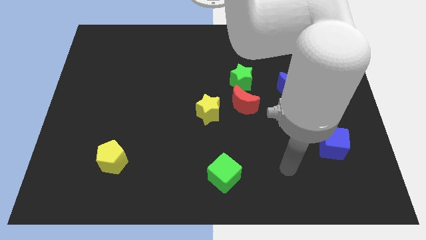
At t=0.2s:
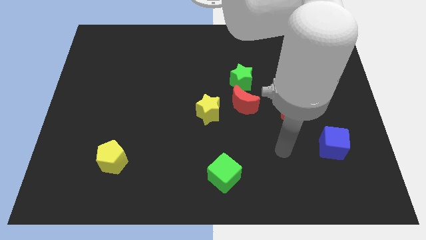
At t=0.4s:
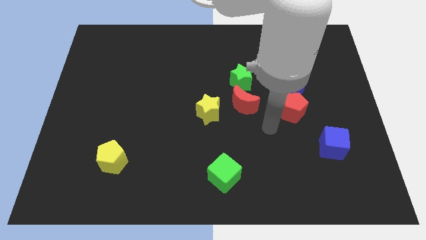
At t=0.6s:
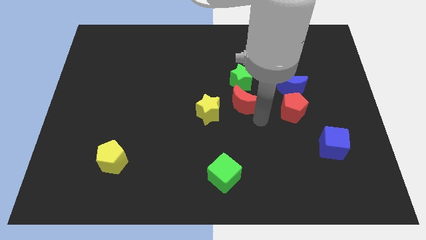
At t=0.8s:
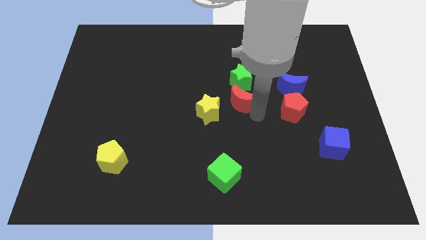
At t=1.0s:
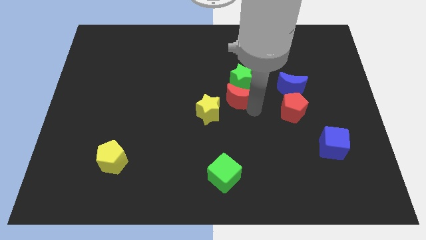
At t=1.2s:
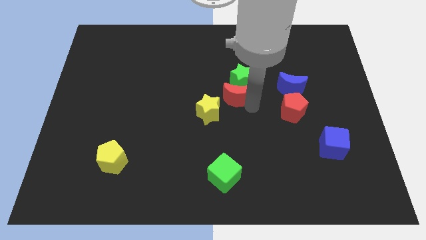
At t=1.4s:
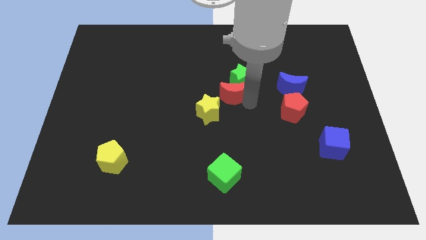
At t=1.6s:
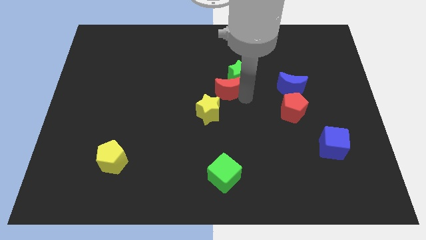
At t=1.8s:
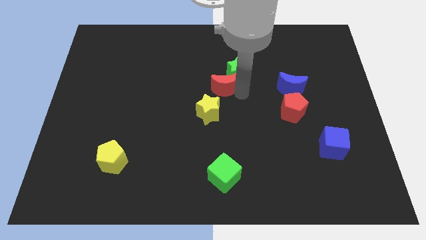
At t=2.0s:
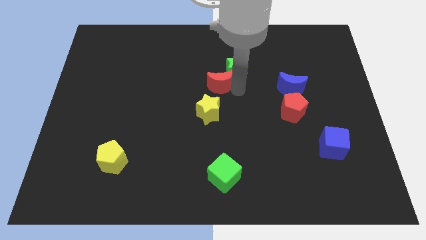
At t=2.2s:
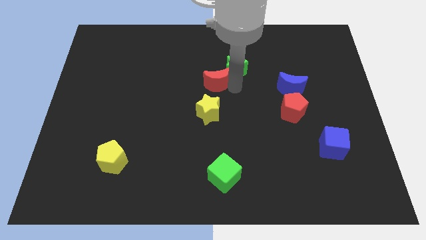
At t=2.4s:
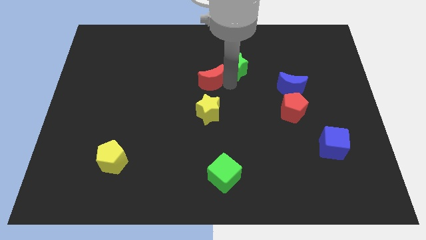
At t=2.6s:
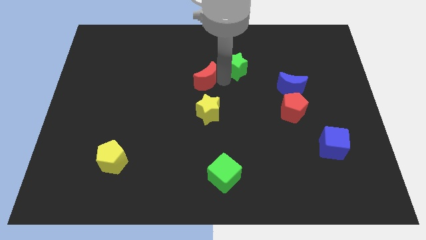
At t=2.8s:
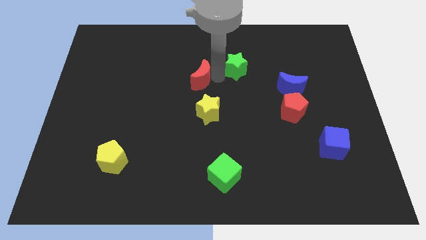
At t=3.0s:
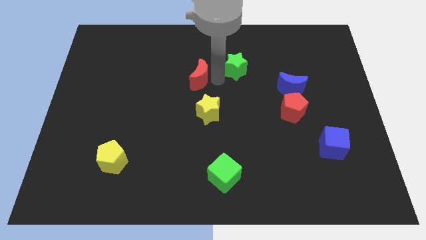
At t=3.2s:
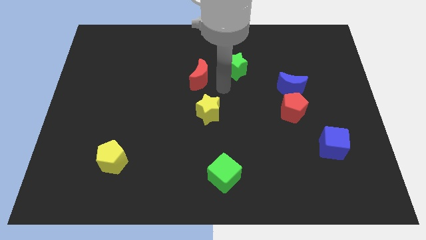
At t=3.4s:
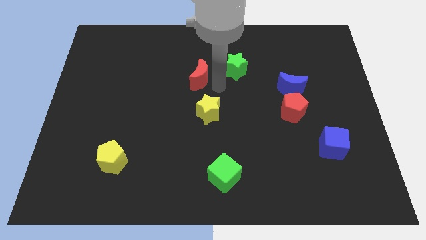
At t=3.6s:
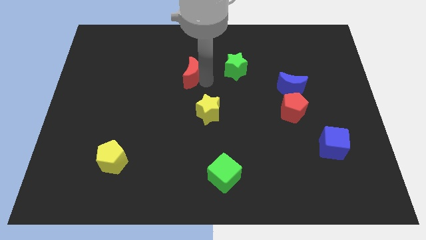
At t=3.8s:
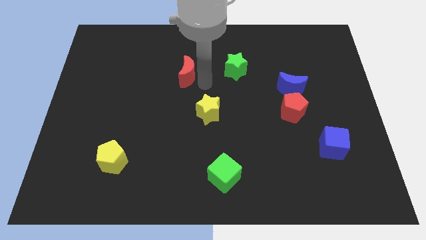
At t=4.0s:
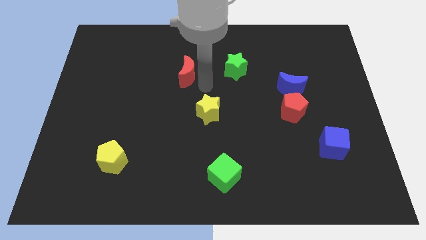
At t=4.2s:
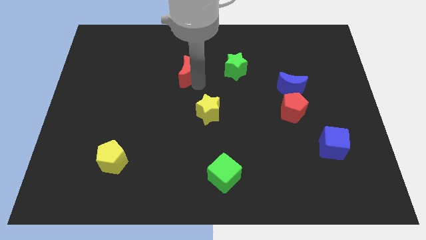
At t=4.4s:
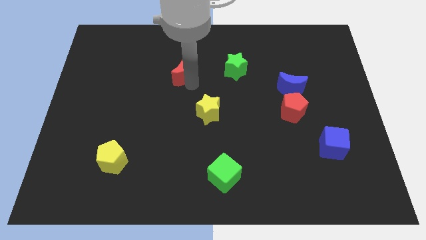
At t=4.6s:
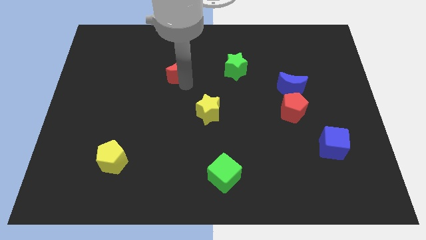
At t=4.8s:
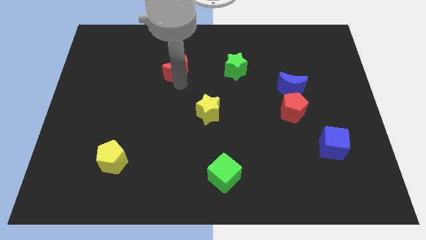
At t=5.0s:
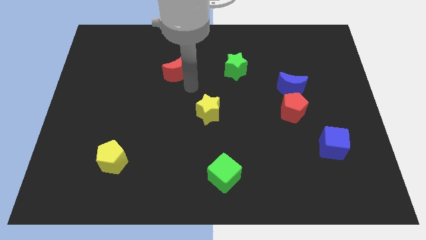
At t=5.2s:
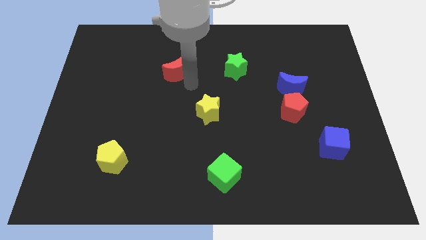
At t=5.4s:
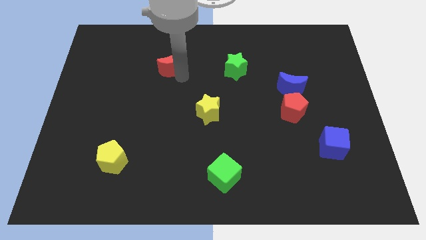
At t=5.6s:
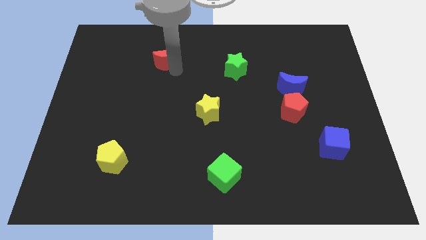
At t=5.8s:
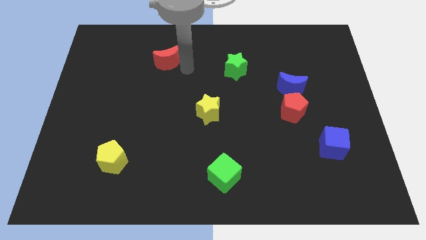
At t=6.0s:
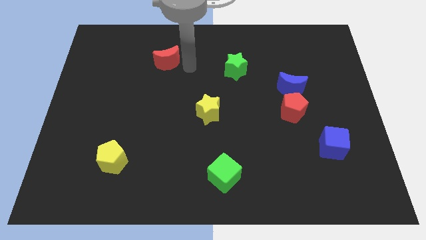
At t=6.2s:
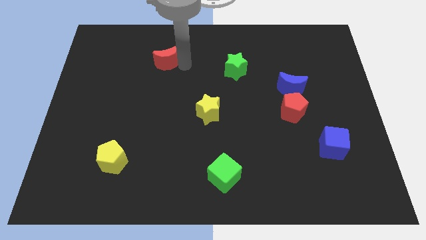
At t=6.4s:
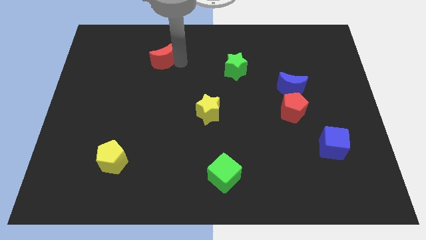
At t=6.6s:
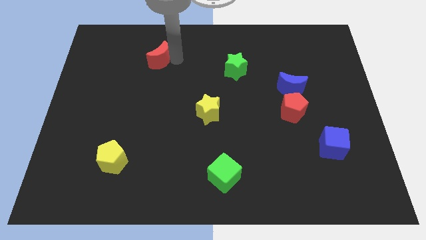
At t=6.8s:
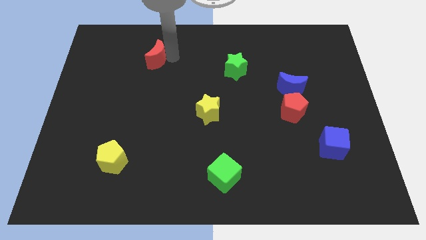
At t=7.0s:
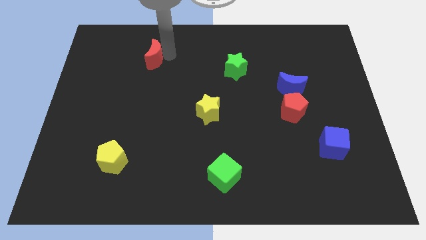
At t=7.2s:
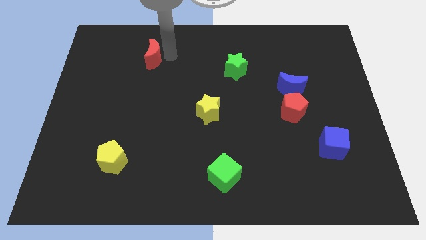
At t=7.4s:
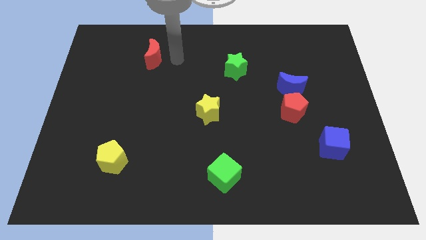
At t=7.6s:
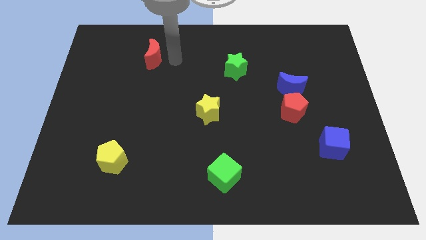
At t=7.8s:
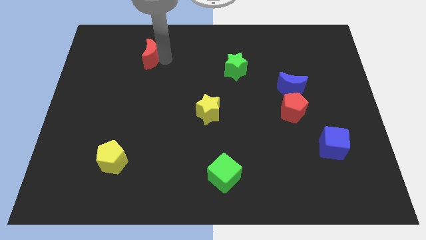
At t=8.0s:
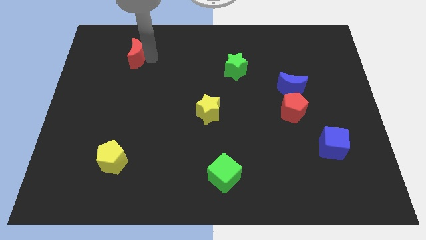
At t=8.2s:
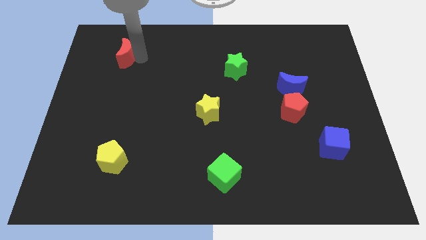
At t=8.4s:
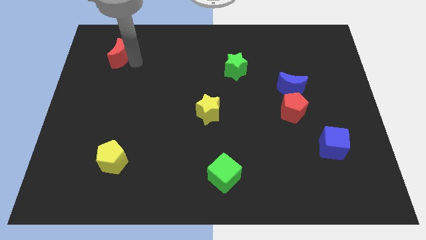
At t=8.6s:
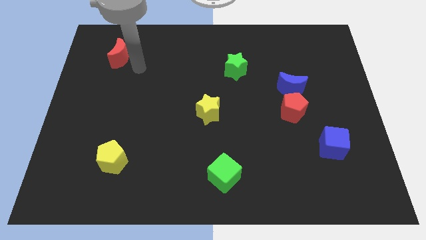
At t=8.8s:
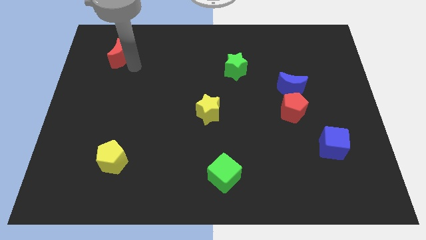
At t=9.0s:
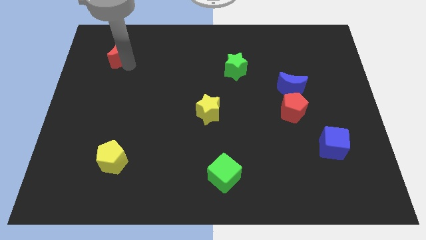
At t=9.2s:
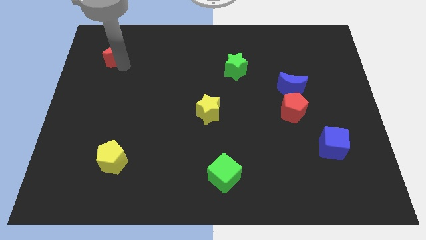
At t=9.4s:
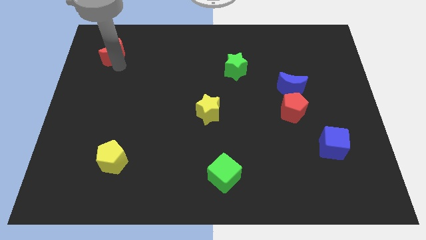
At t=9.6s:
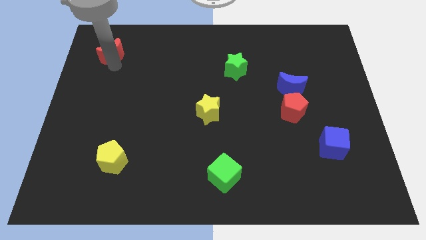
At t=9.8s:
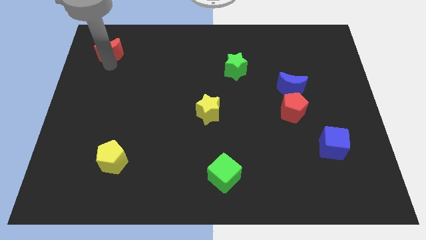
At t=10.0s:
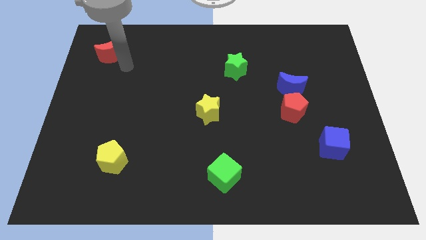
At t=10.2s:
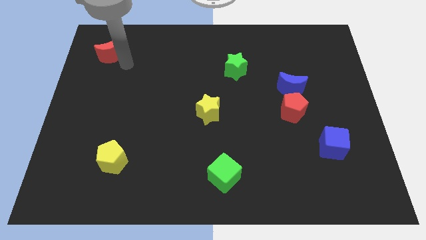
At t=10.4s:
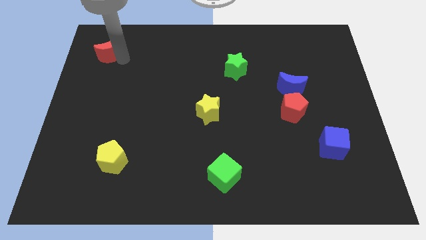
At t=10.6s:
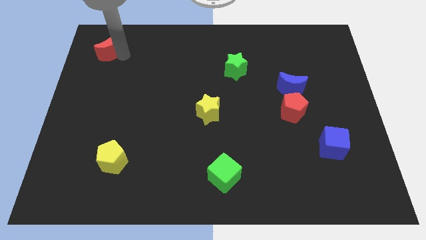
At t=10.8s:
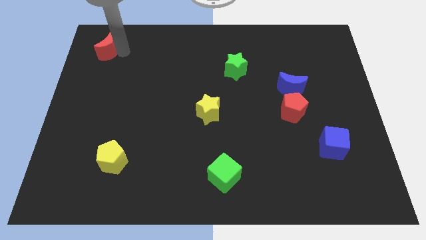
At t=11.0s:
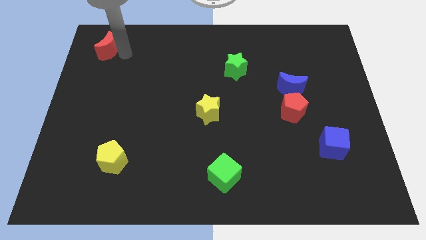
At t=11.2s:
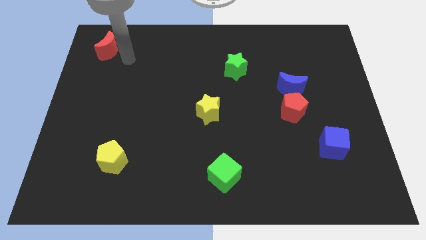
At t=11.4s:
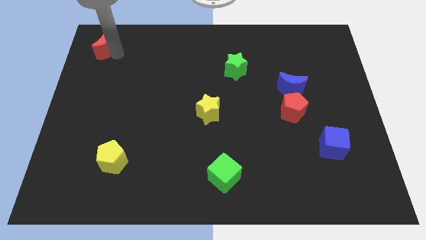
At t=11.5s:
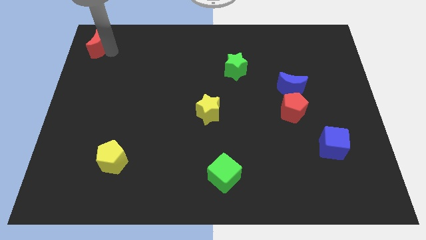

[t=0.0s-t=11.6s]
put the red moon to the upper left corner

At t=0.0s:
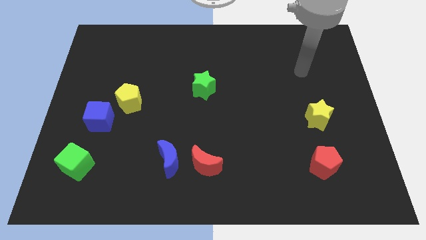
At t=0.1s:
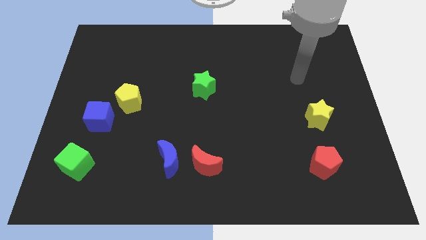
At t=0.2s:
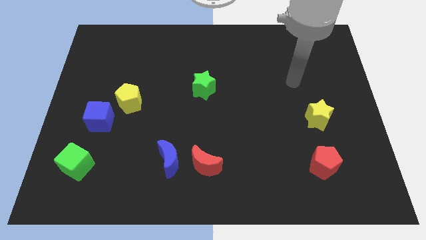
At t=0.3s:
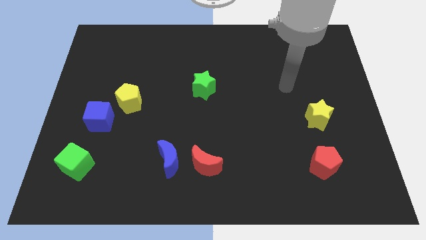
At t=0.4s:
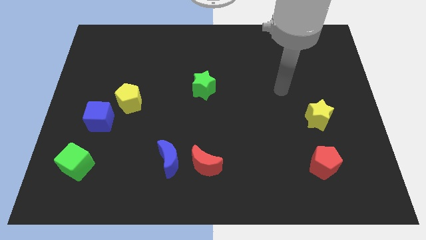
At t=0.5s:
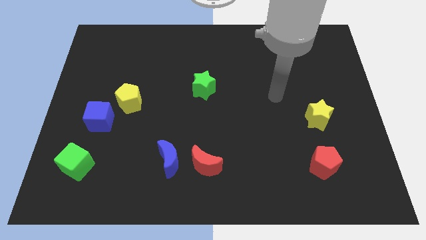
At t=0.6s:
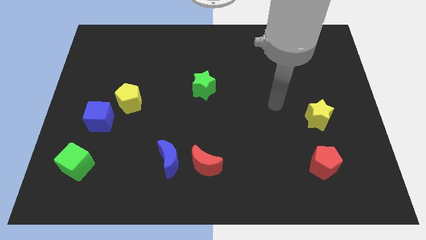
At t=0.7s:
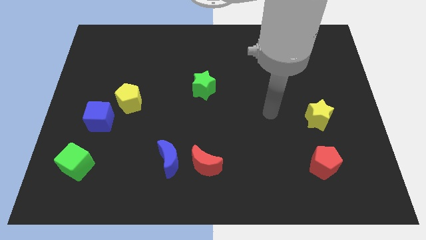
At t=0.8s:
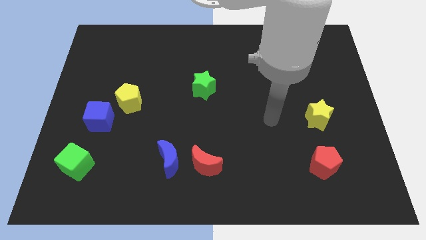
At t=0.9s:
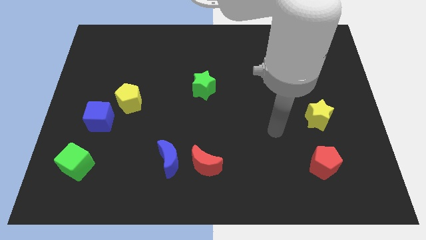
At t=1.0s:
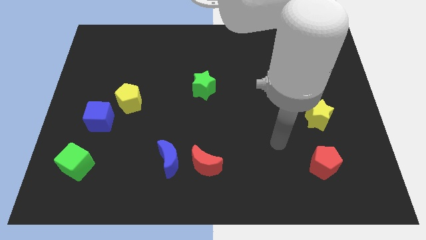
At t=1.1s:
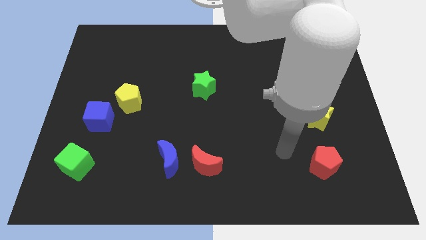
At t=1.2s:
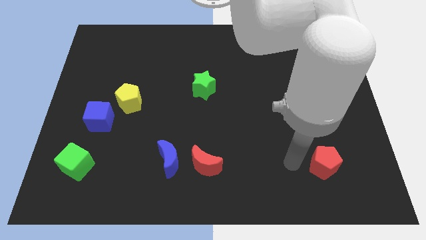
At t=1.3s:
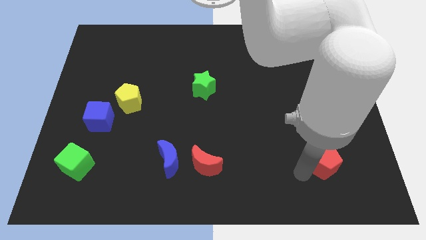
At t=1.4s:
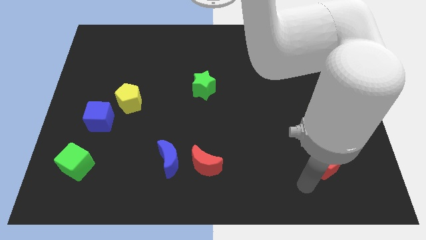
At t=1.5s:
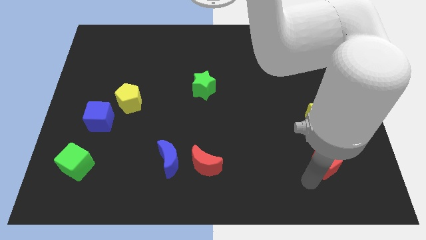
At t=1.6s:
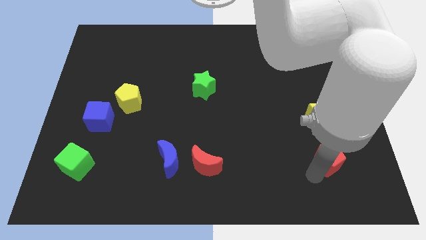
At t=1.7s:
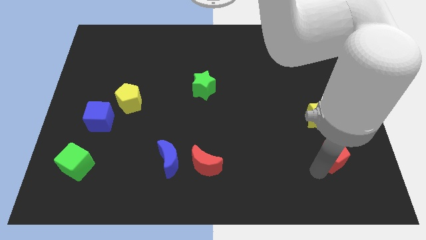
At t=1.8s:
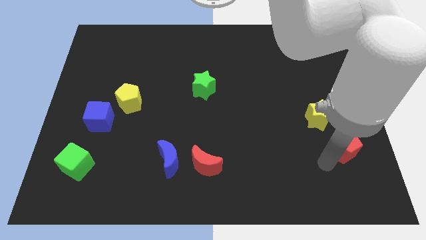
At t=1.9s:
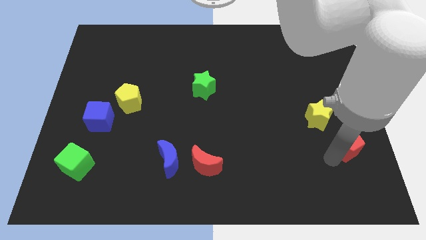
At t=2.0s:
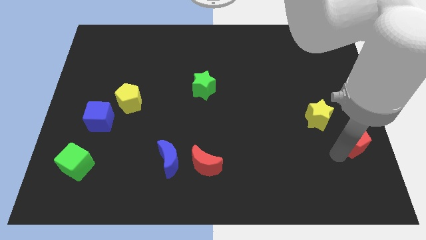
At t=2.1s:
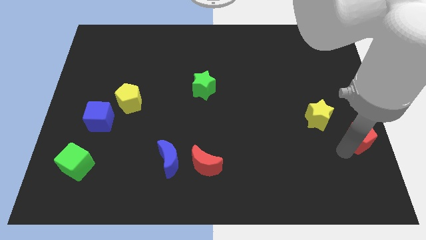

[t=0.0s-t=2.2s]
slide the red pentagon to the center right
